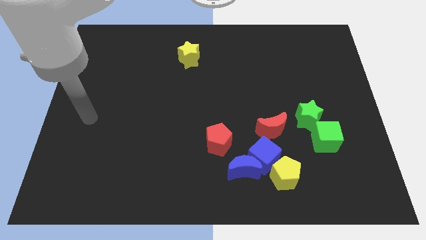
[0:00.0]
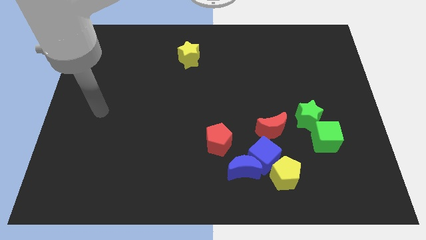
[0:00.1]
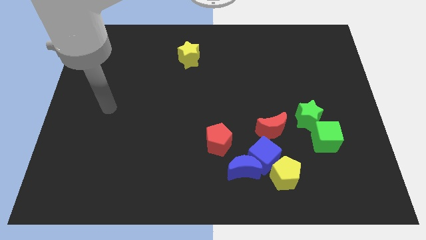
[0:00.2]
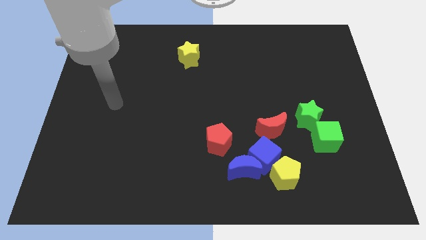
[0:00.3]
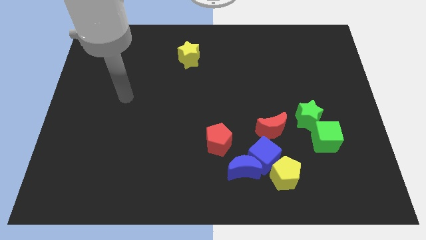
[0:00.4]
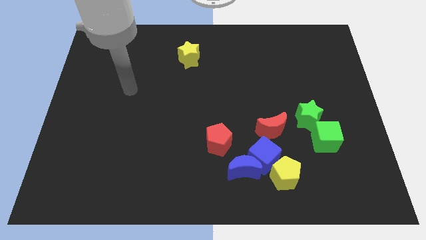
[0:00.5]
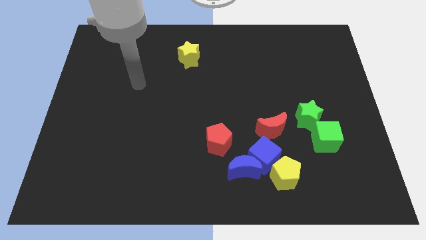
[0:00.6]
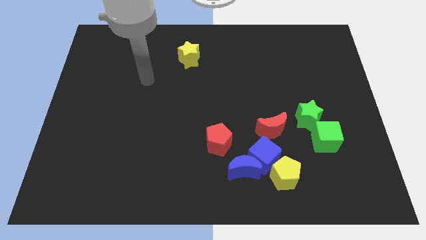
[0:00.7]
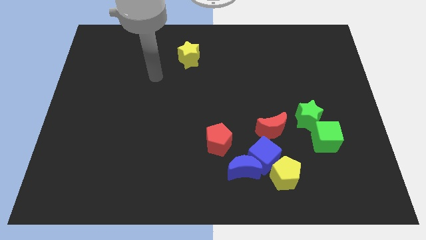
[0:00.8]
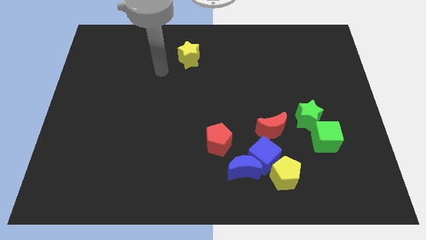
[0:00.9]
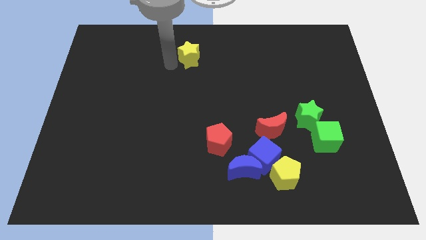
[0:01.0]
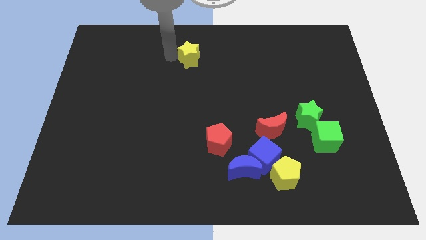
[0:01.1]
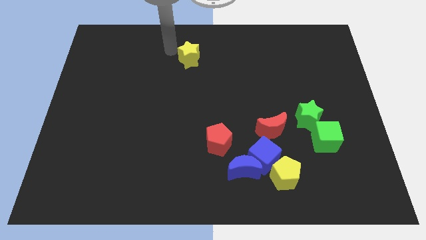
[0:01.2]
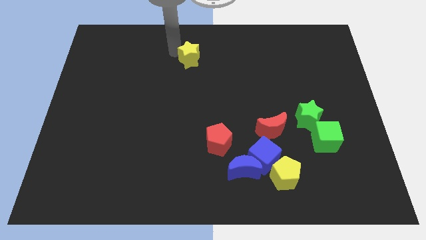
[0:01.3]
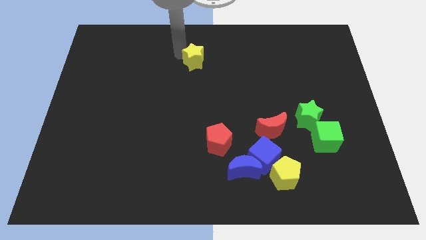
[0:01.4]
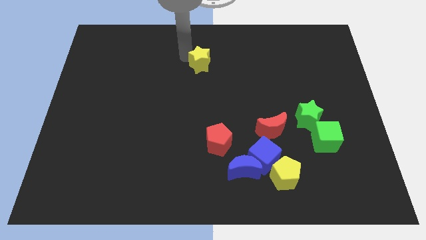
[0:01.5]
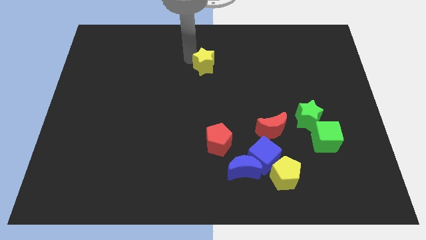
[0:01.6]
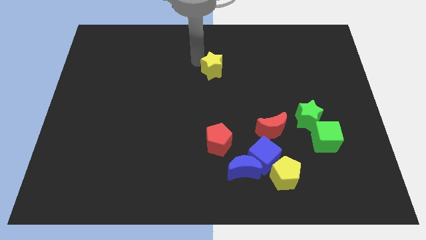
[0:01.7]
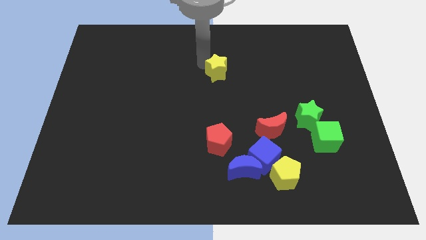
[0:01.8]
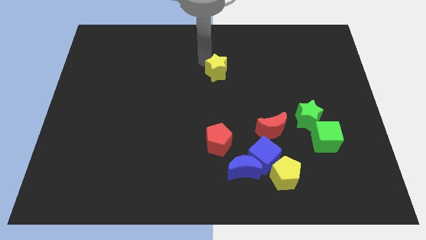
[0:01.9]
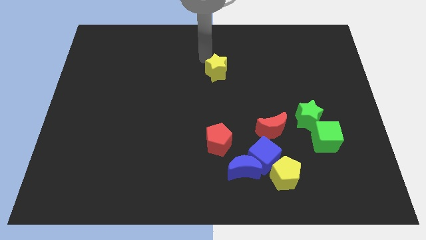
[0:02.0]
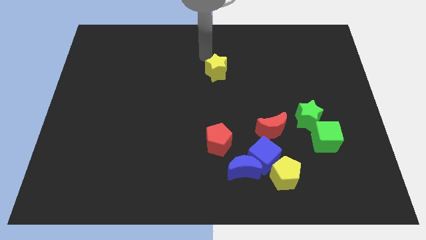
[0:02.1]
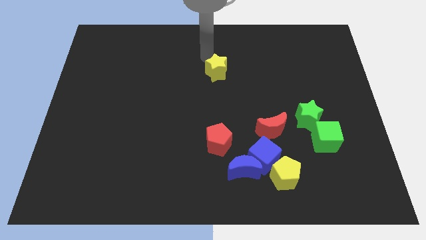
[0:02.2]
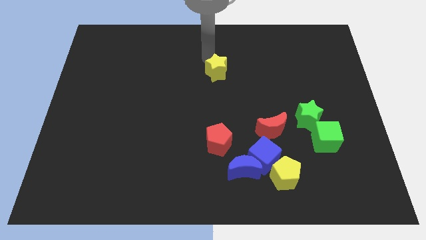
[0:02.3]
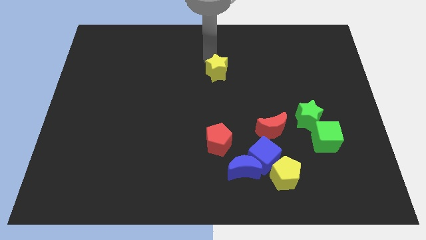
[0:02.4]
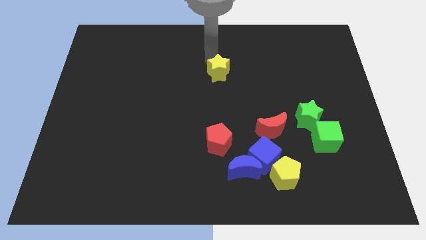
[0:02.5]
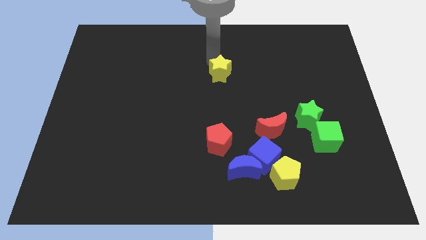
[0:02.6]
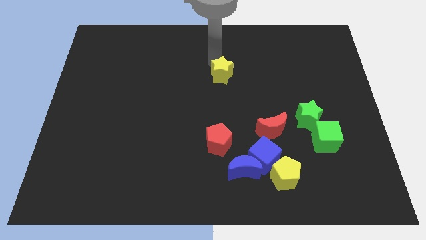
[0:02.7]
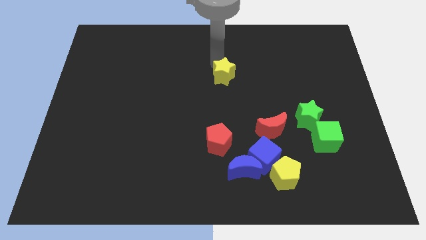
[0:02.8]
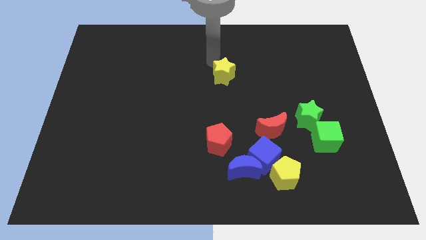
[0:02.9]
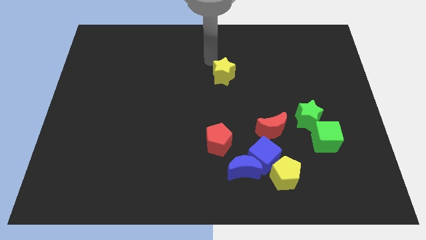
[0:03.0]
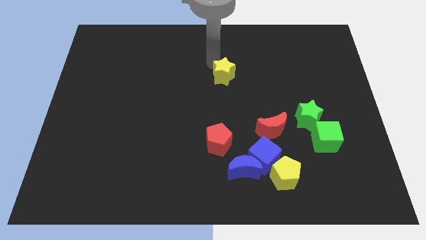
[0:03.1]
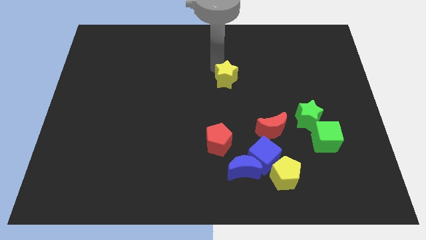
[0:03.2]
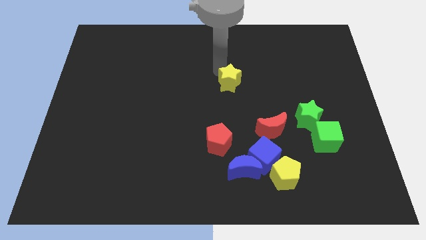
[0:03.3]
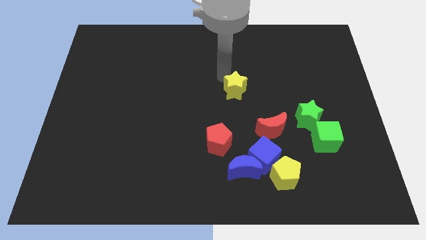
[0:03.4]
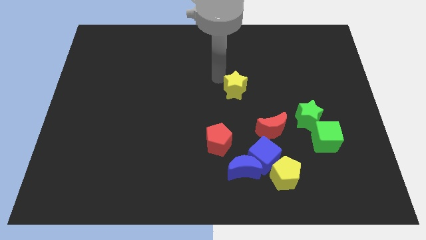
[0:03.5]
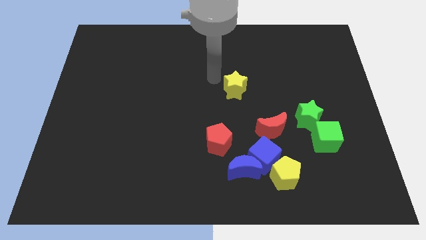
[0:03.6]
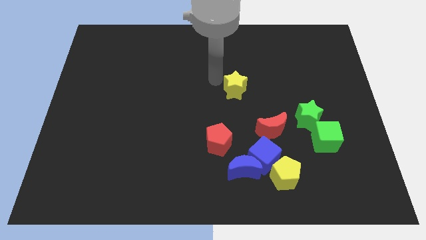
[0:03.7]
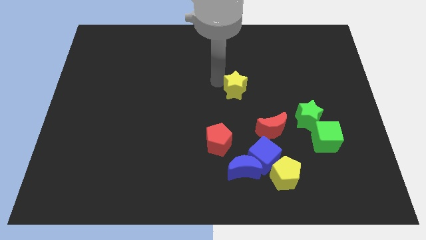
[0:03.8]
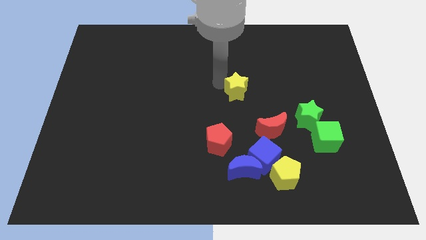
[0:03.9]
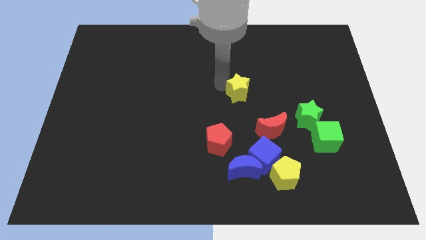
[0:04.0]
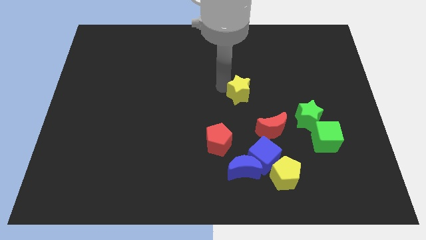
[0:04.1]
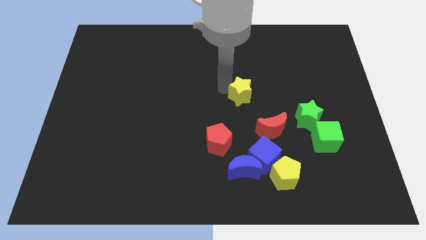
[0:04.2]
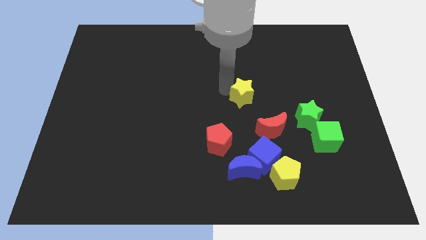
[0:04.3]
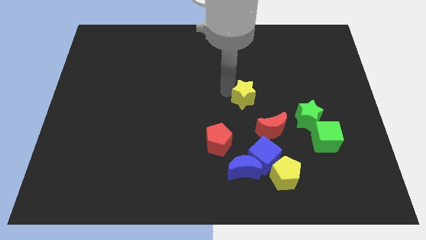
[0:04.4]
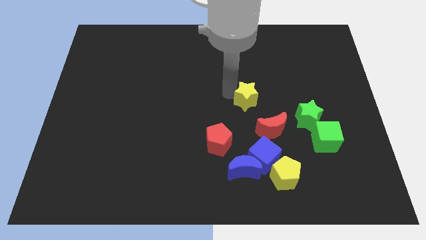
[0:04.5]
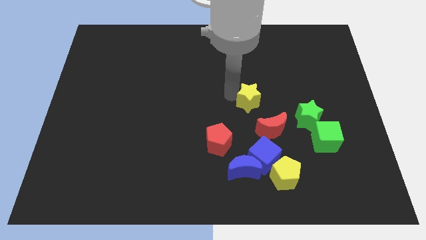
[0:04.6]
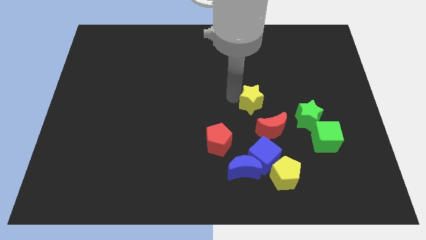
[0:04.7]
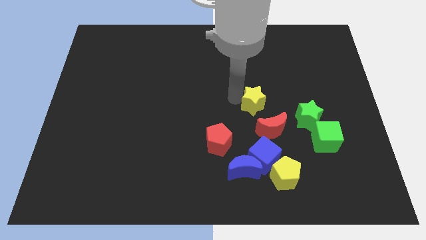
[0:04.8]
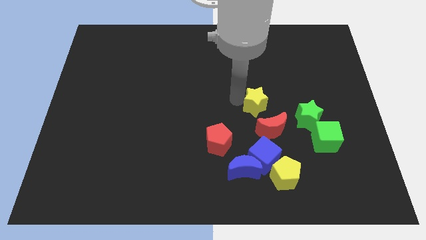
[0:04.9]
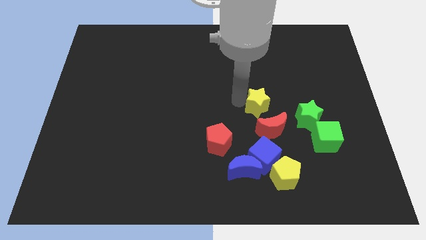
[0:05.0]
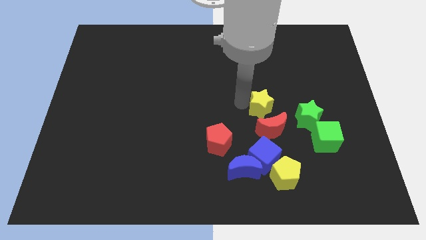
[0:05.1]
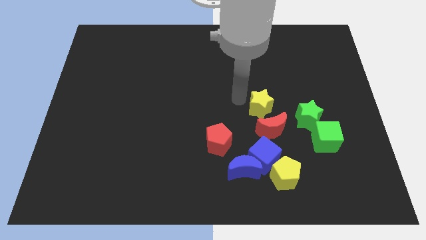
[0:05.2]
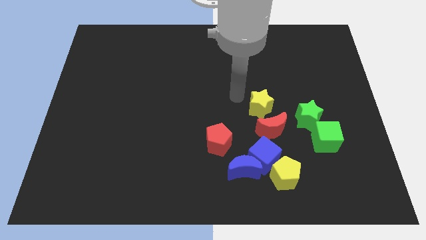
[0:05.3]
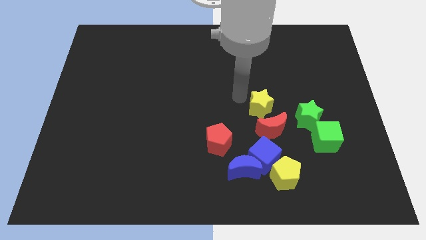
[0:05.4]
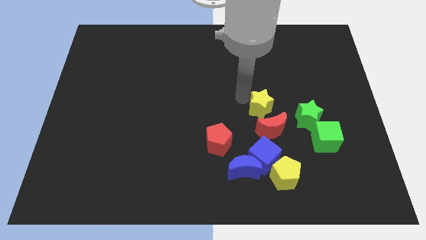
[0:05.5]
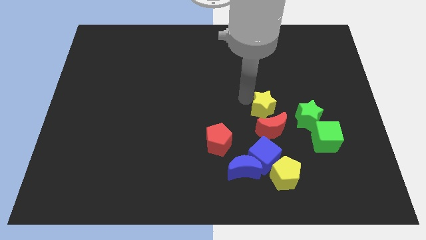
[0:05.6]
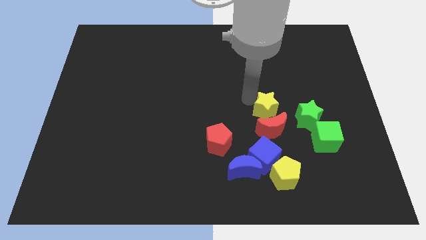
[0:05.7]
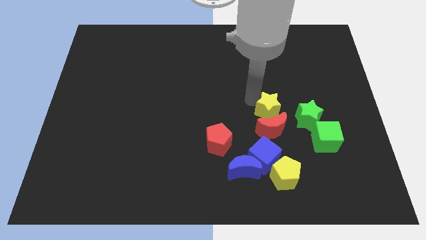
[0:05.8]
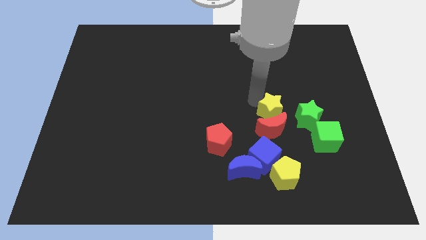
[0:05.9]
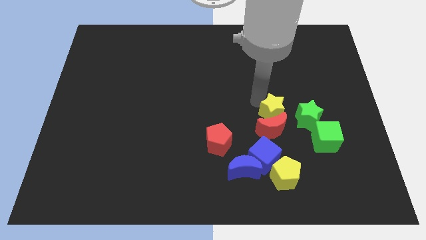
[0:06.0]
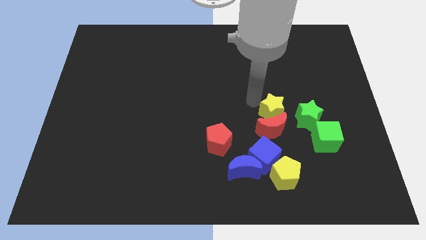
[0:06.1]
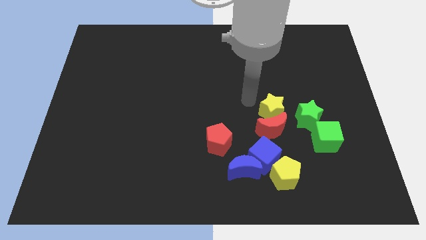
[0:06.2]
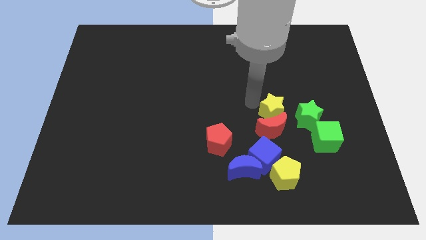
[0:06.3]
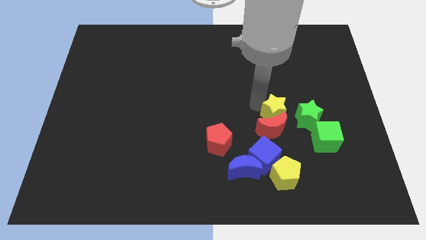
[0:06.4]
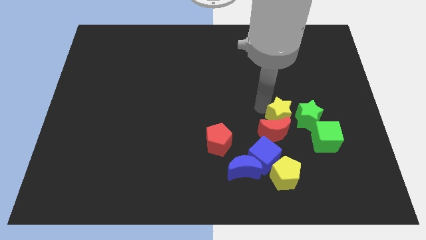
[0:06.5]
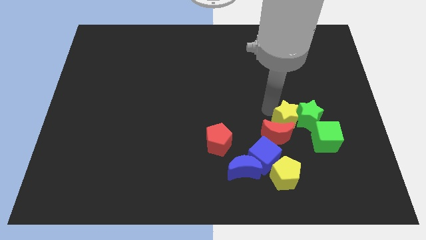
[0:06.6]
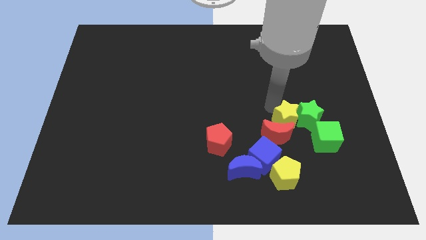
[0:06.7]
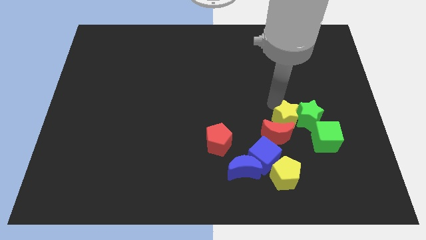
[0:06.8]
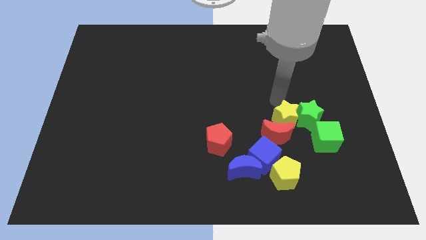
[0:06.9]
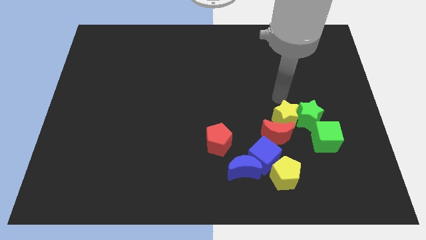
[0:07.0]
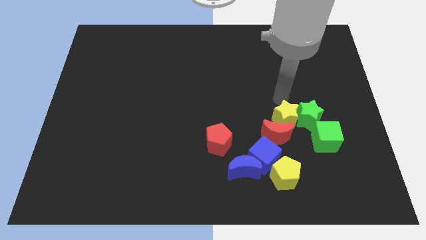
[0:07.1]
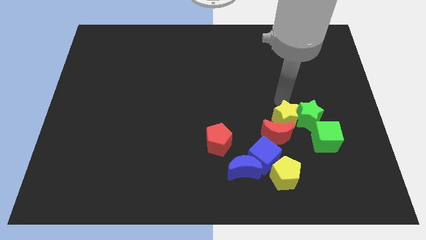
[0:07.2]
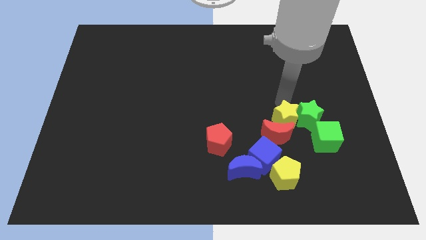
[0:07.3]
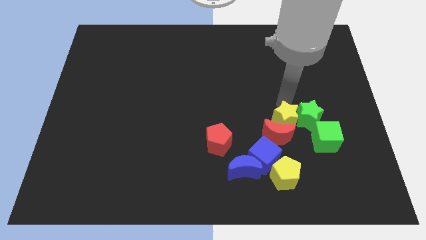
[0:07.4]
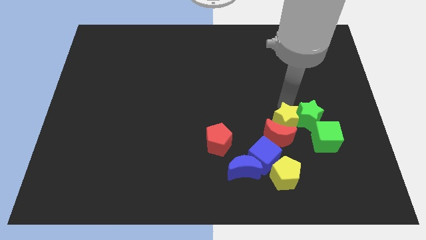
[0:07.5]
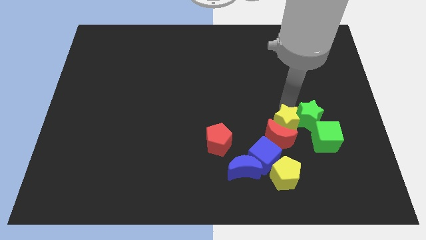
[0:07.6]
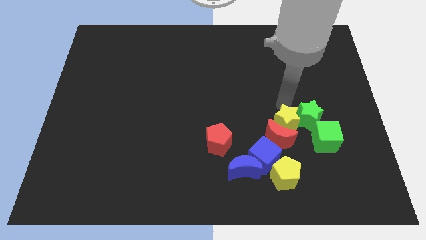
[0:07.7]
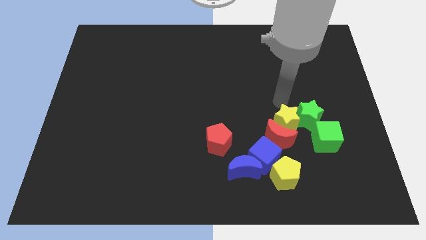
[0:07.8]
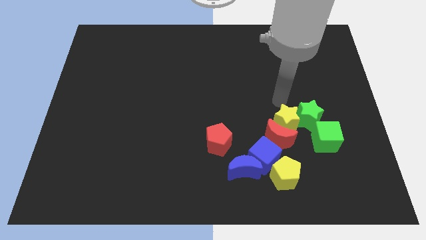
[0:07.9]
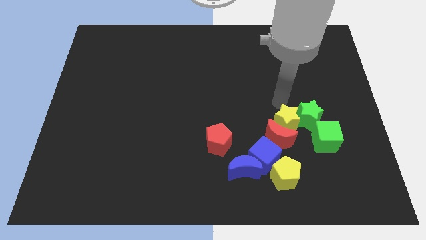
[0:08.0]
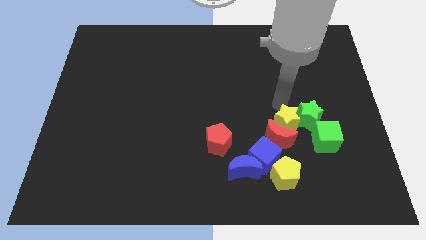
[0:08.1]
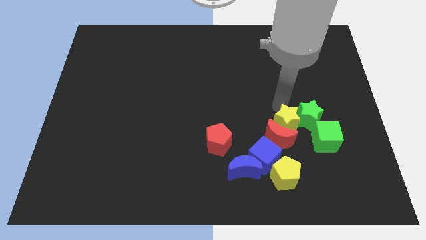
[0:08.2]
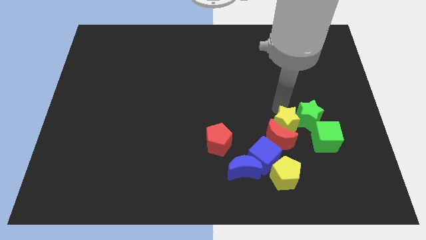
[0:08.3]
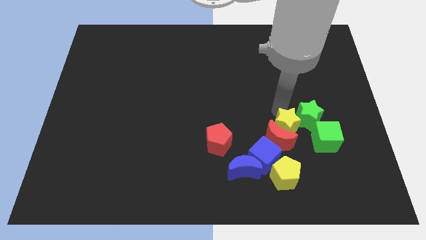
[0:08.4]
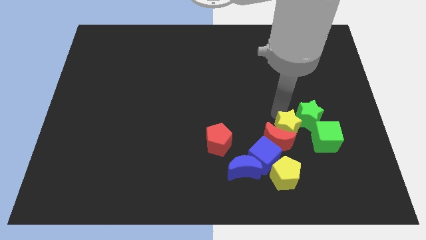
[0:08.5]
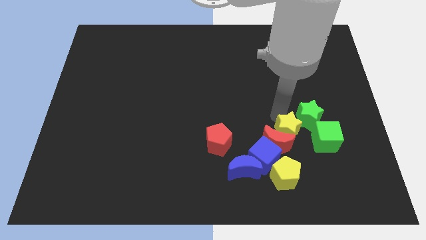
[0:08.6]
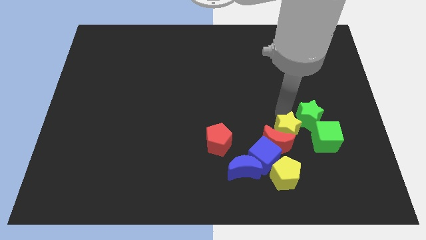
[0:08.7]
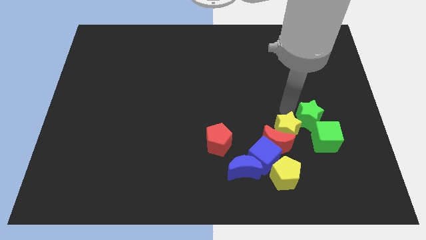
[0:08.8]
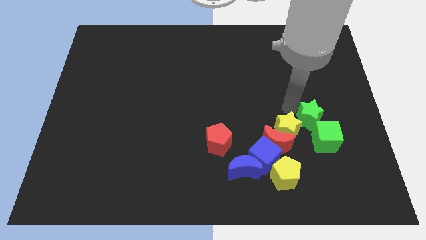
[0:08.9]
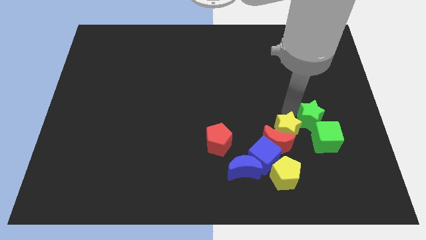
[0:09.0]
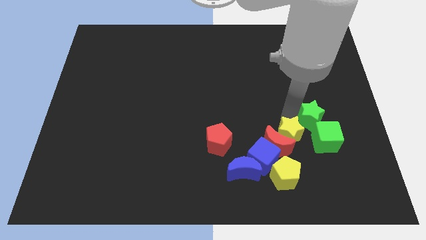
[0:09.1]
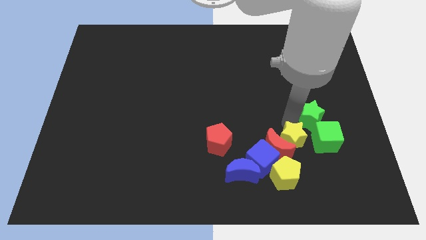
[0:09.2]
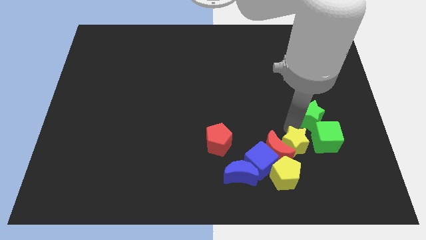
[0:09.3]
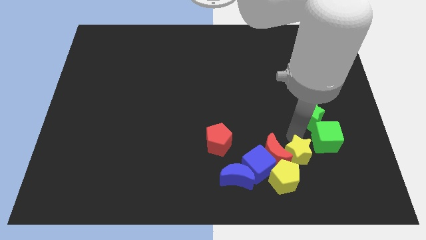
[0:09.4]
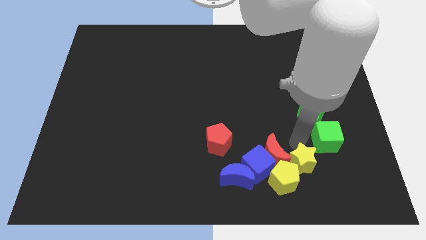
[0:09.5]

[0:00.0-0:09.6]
move the yellow star towards the yellow pentagon
